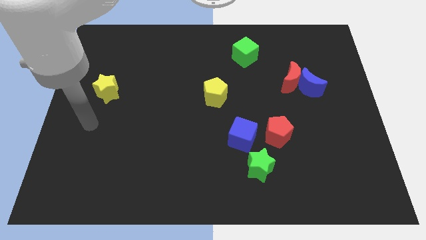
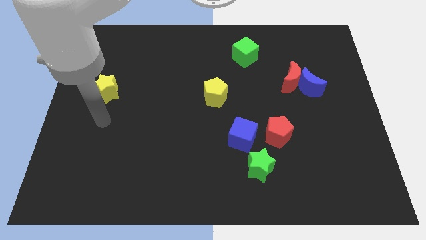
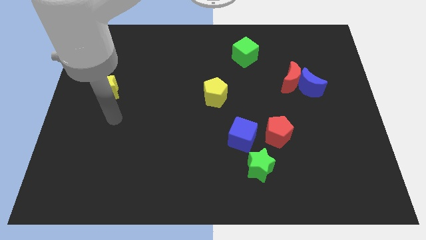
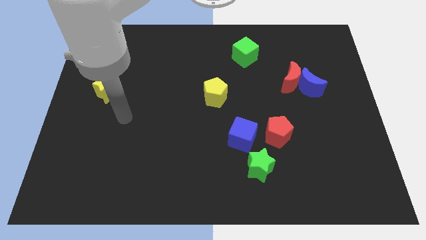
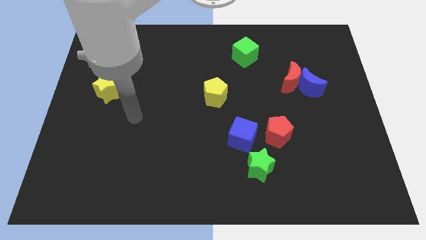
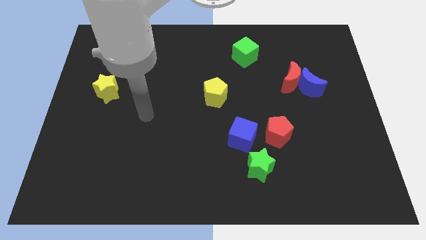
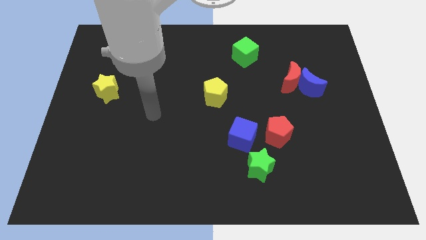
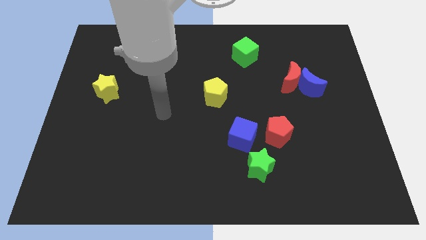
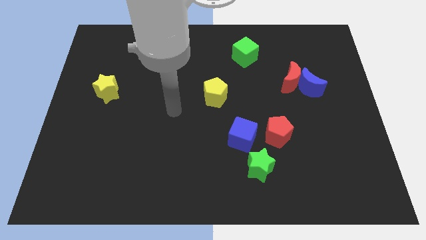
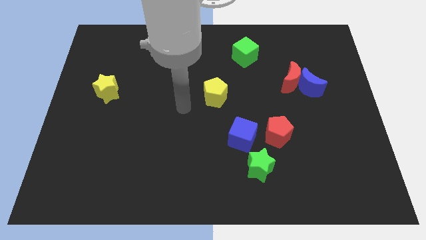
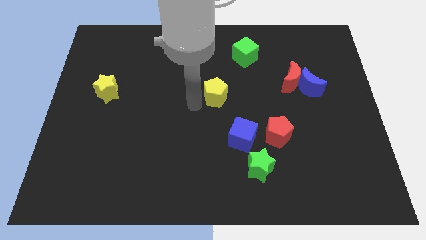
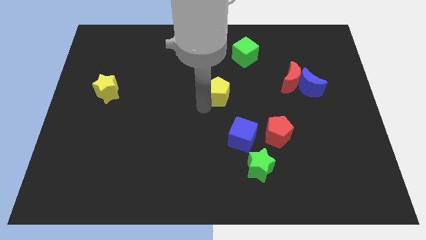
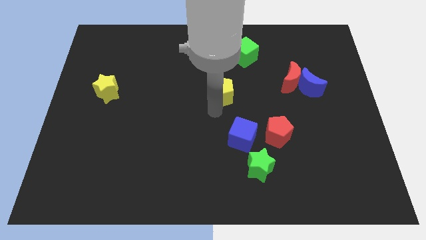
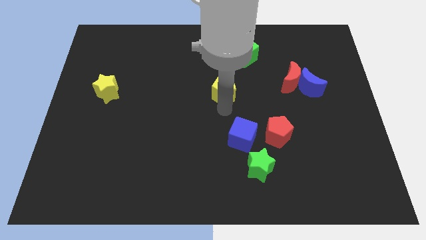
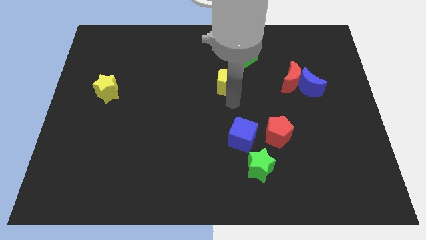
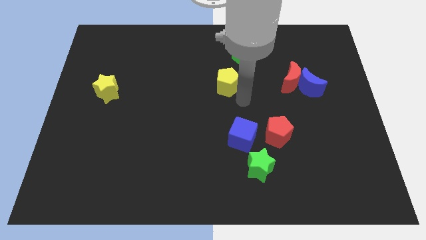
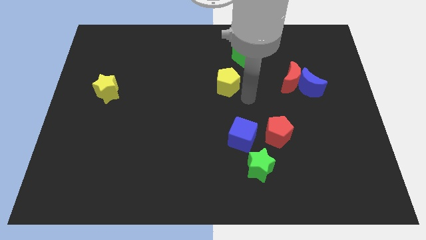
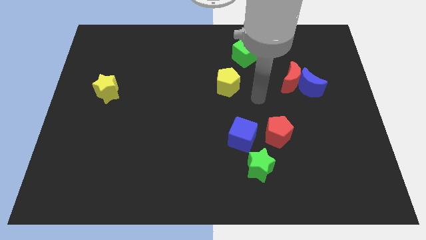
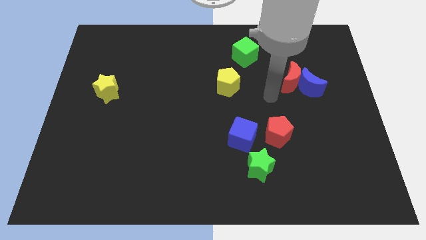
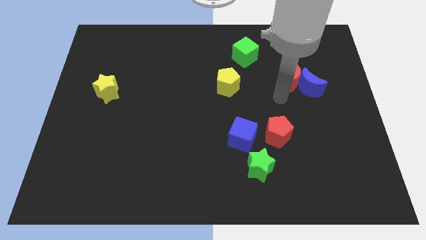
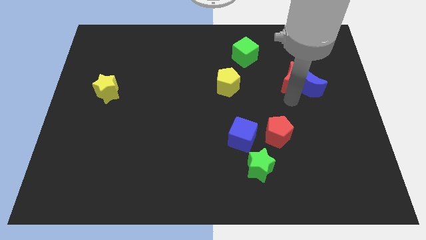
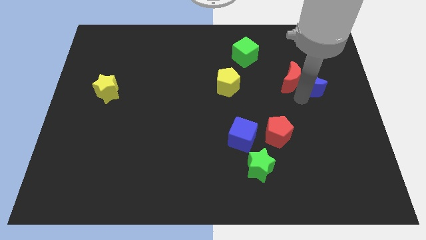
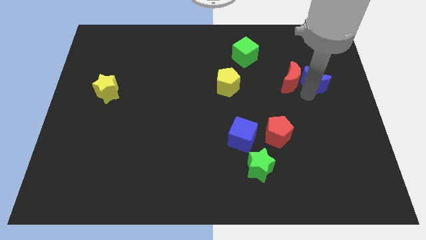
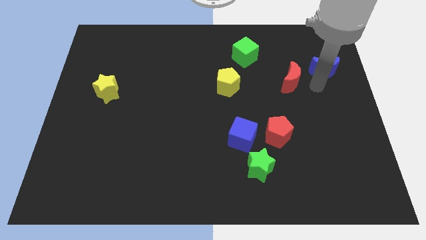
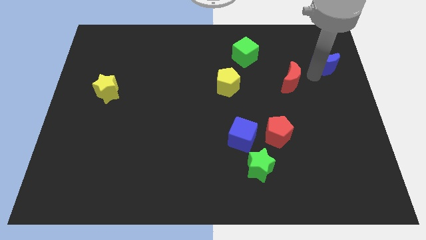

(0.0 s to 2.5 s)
move the red moon away from the blue moon

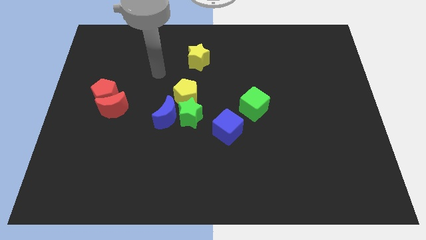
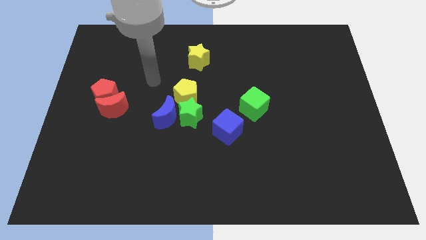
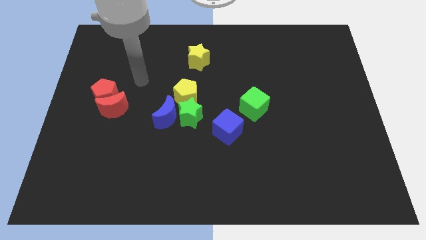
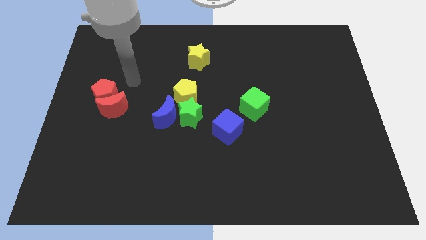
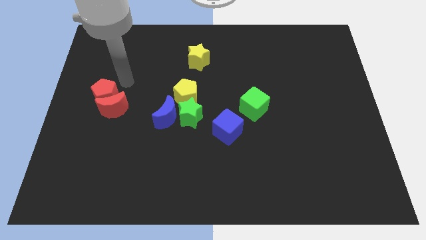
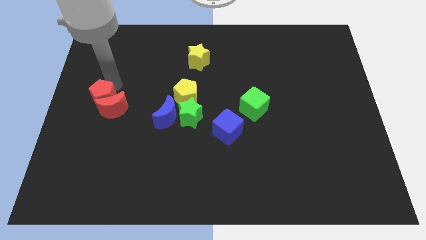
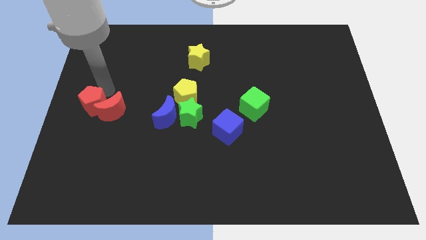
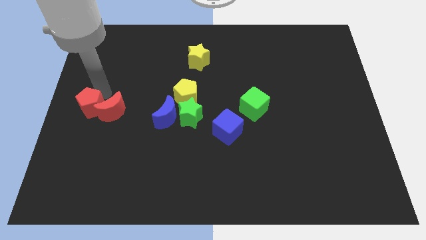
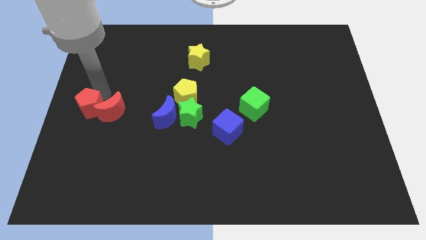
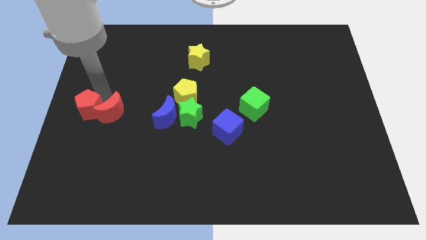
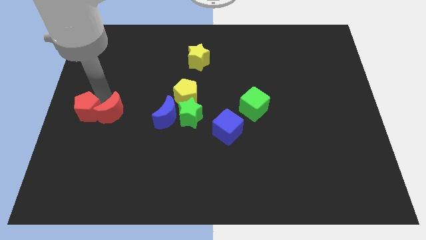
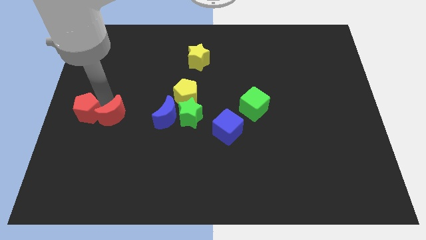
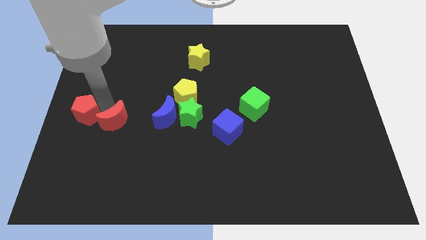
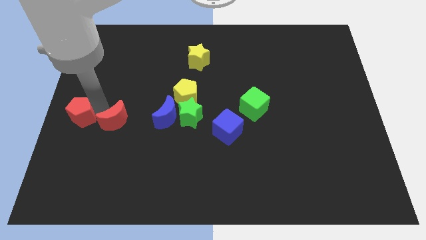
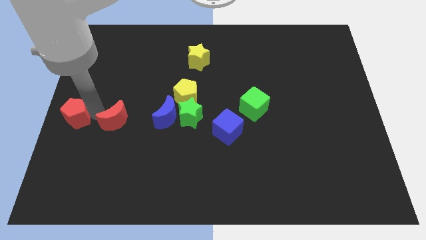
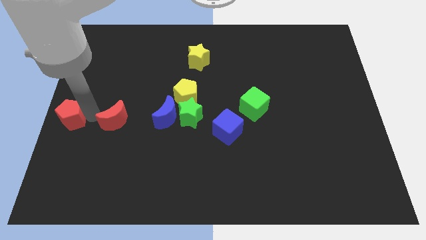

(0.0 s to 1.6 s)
pull the red moon apart from the red pentagon

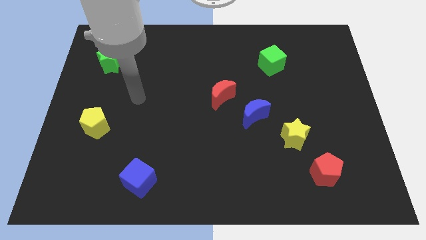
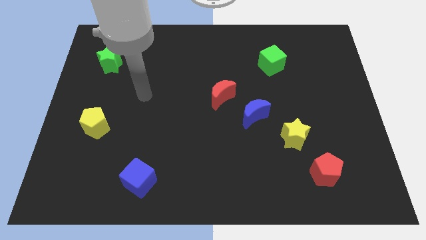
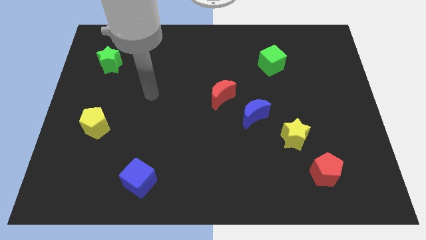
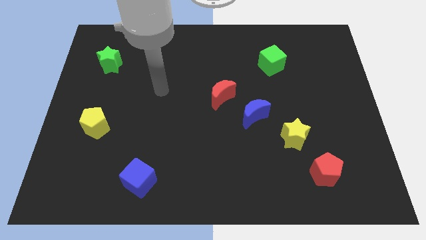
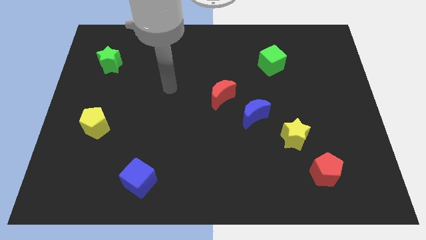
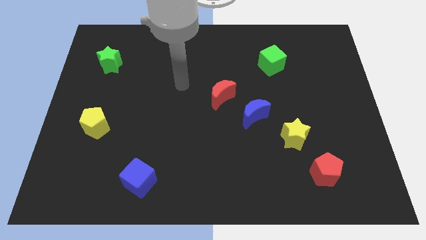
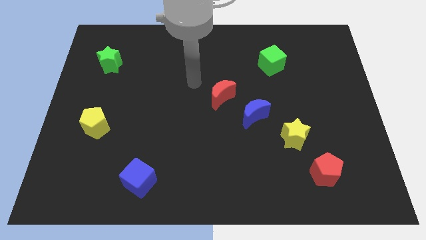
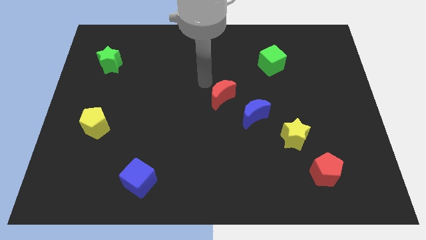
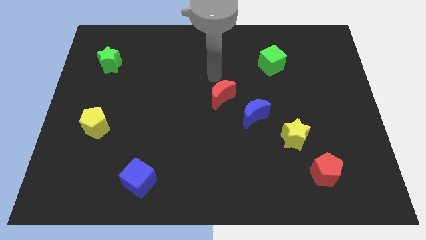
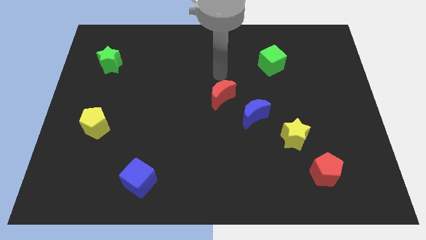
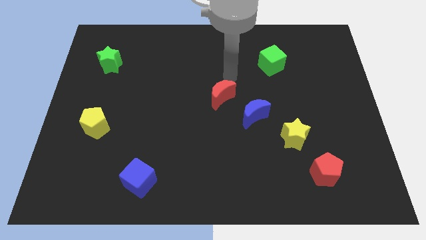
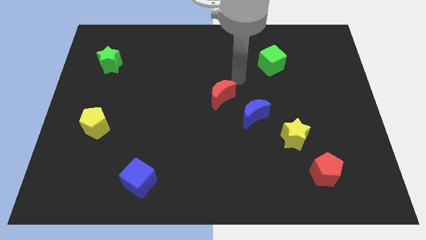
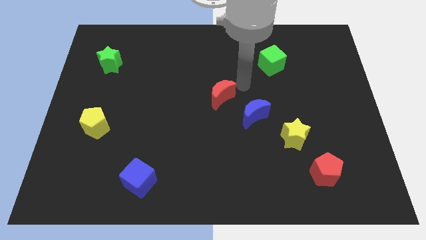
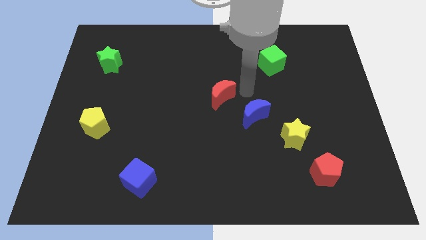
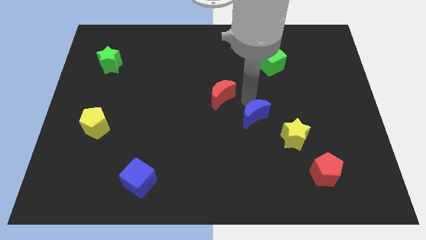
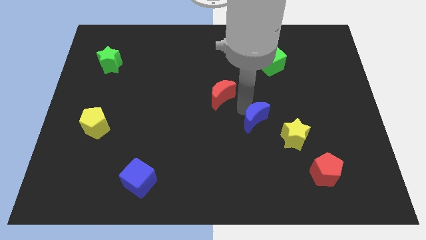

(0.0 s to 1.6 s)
separate the red moon from the blue moon

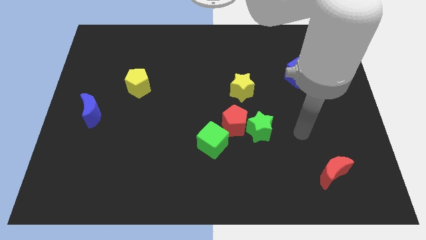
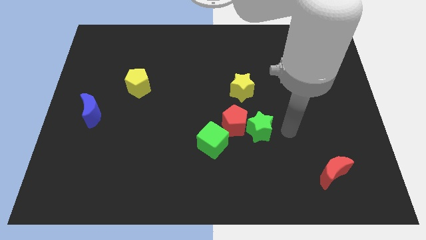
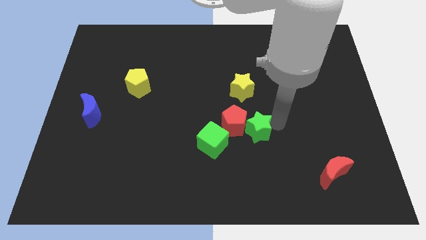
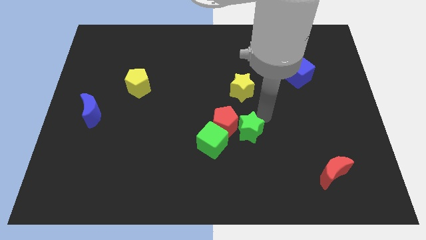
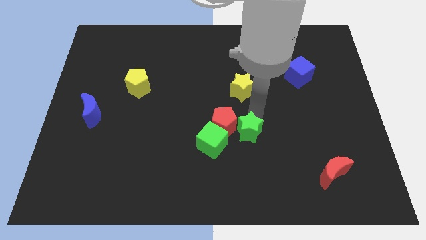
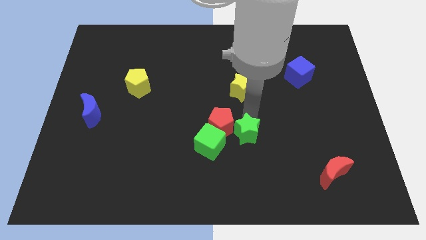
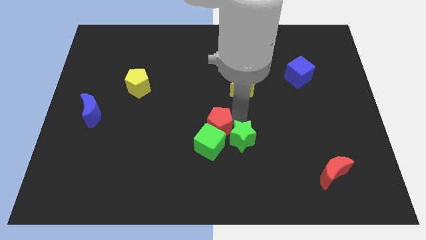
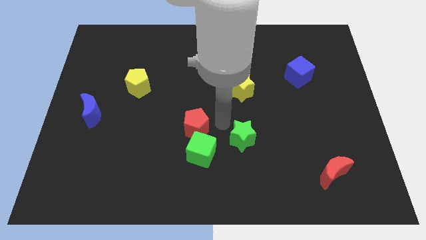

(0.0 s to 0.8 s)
pull the green star apart from the red pentagon

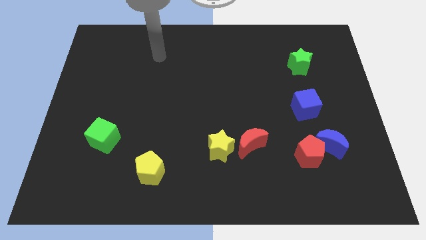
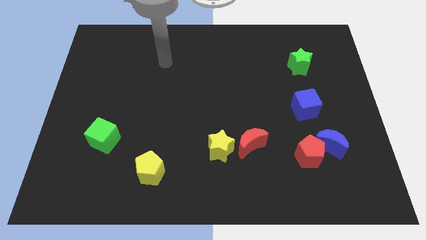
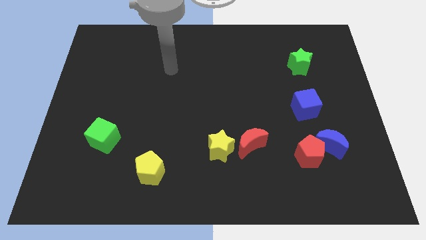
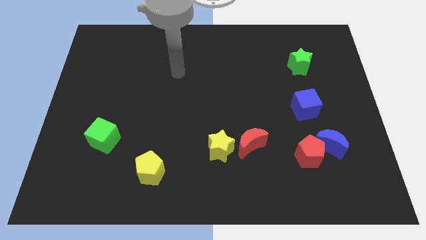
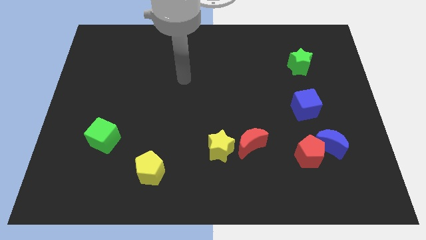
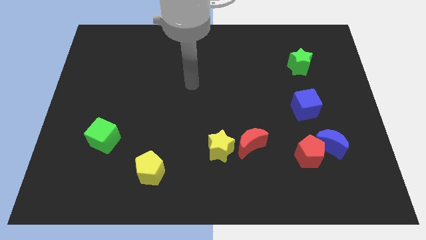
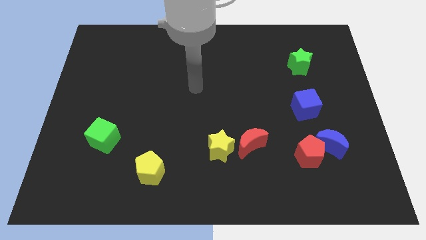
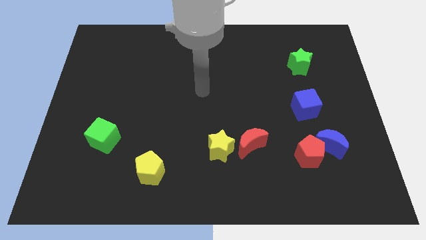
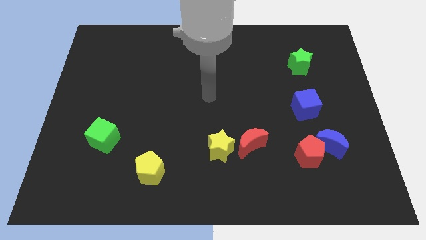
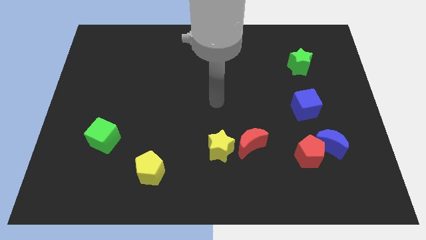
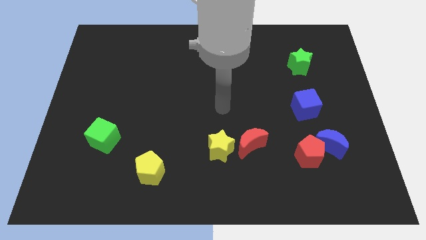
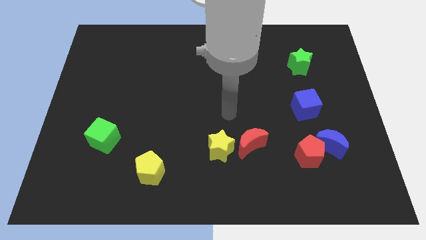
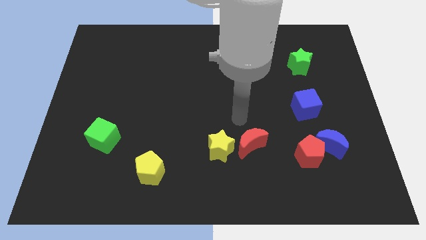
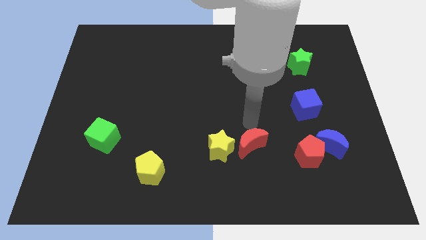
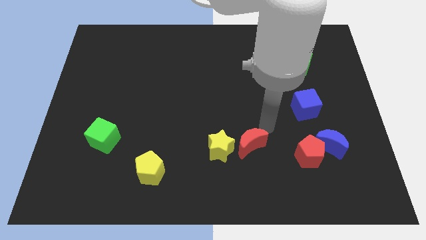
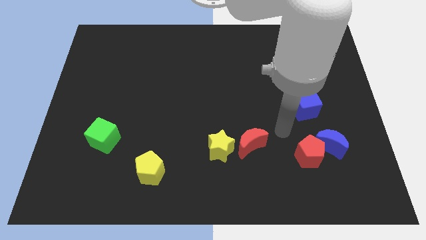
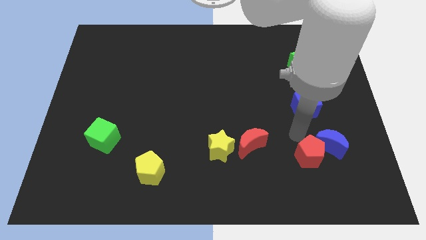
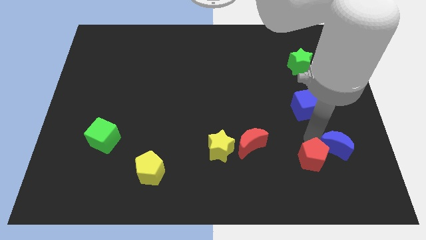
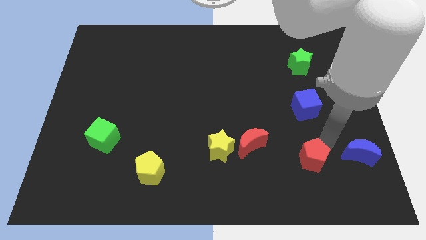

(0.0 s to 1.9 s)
move the red pentagon away from the blue moon

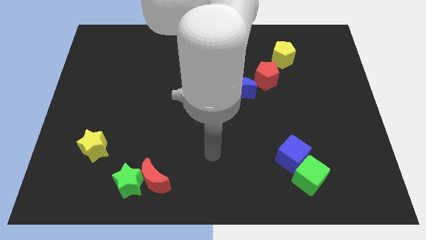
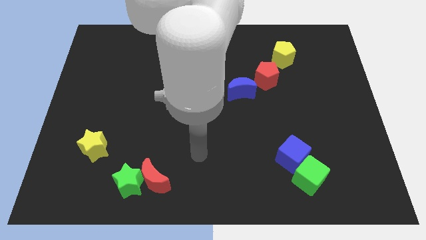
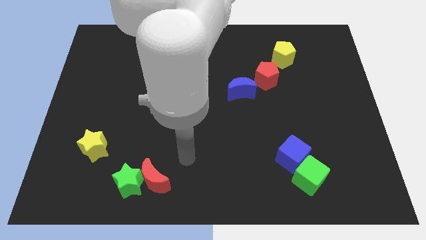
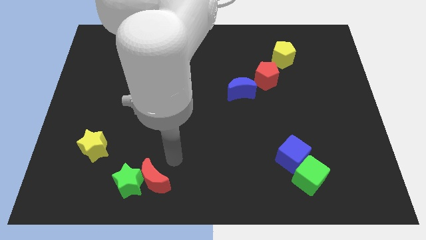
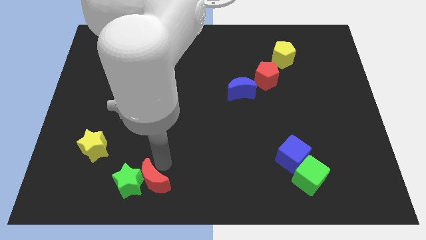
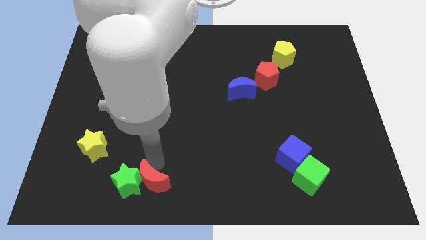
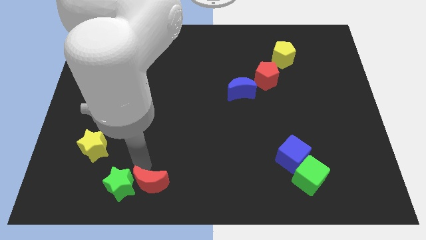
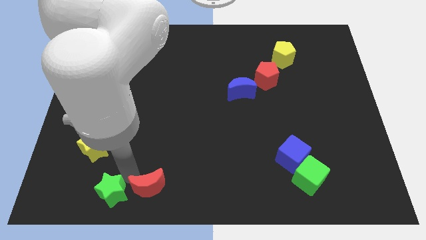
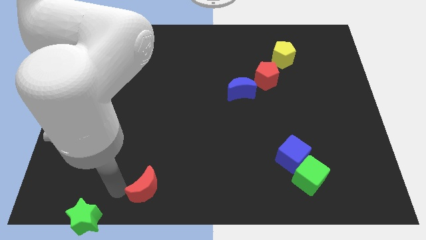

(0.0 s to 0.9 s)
separate the red moon from the green star
